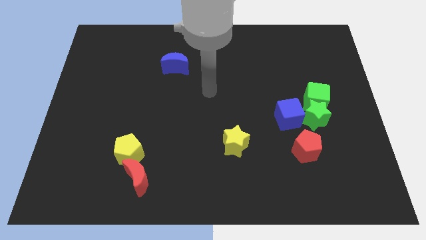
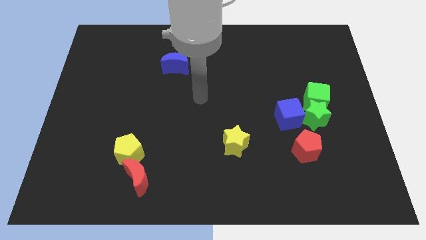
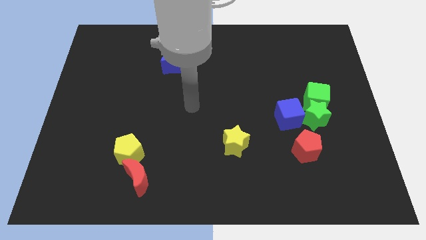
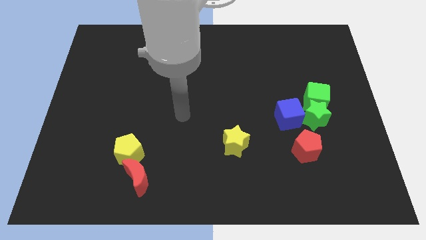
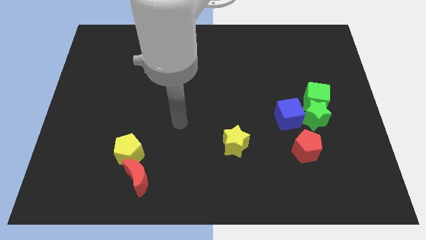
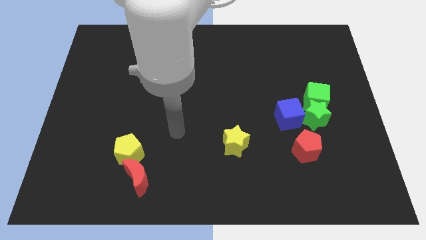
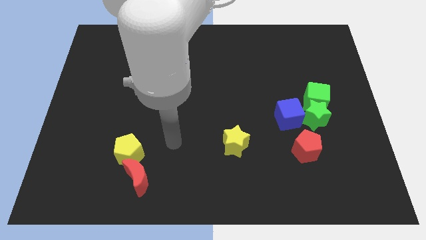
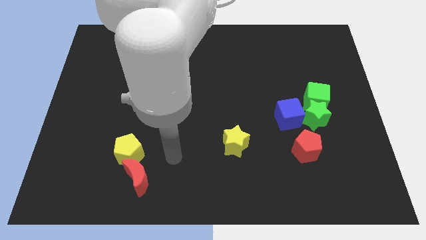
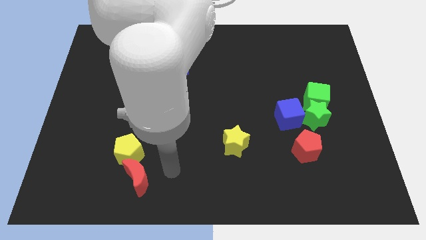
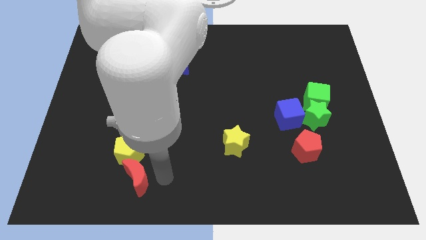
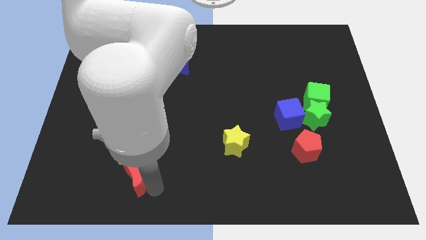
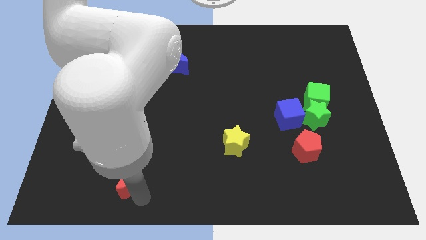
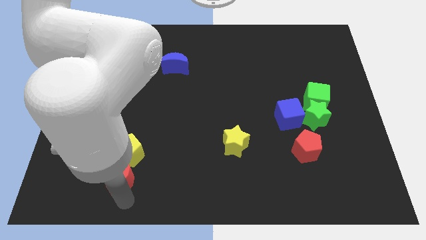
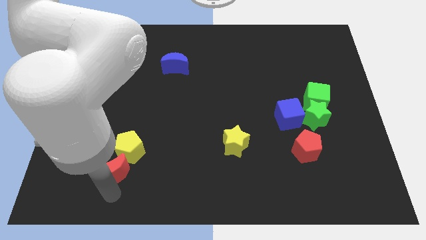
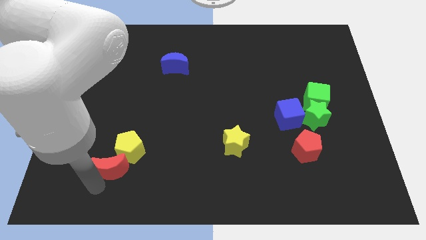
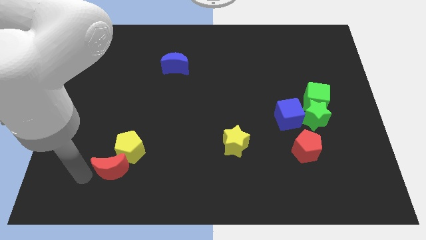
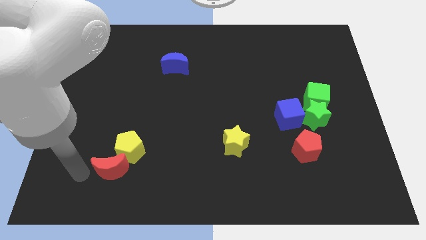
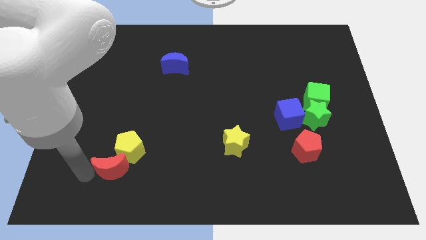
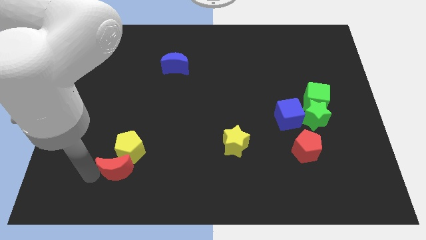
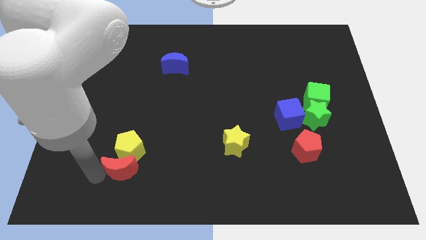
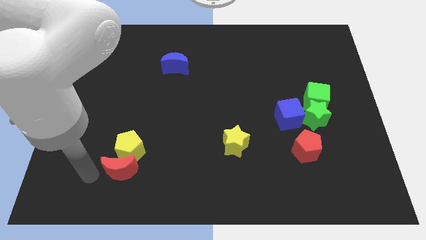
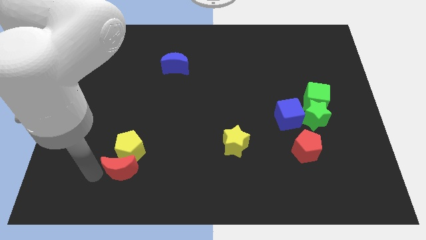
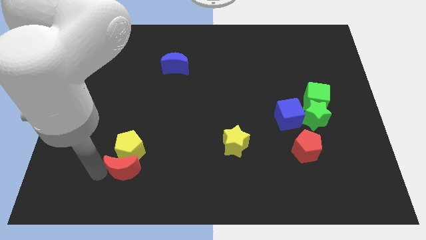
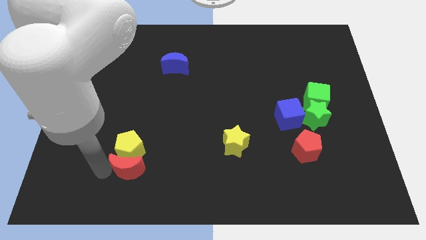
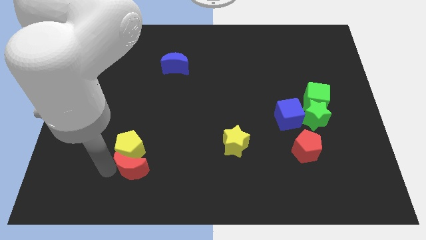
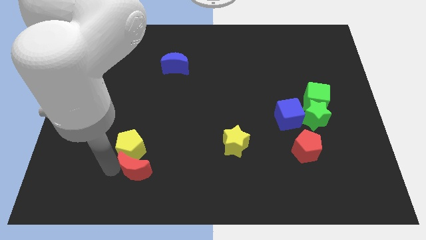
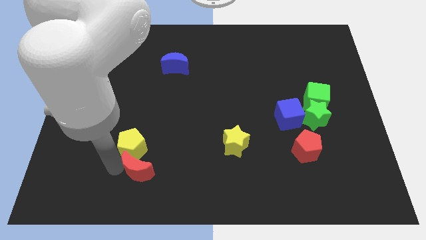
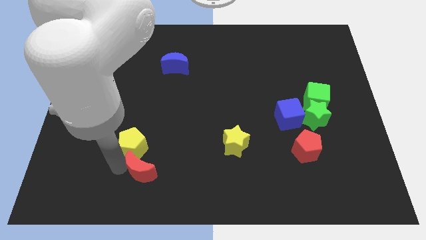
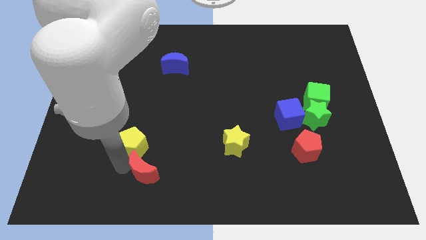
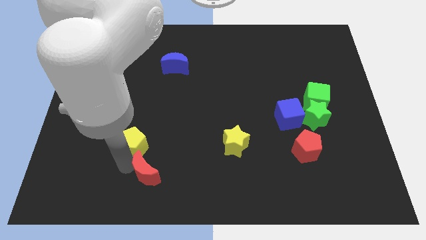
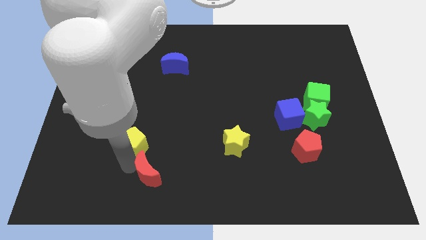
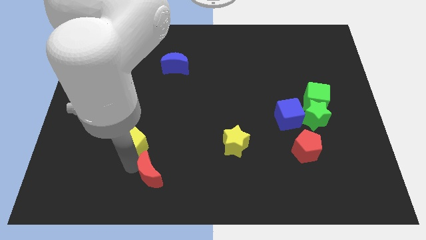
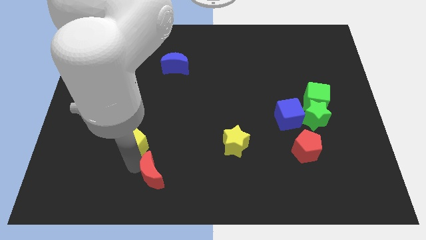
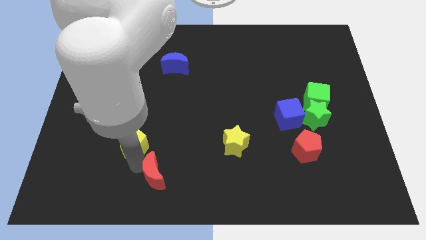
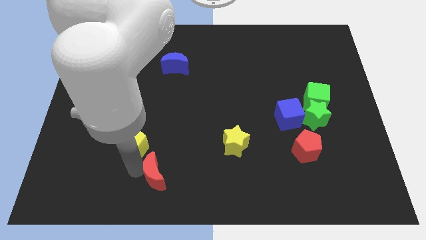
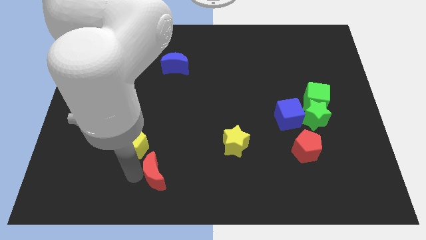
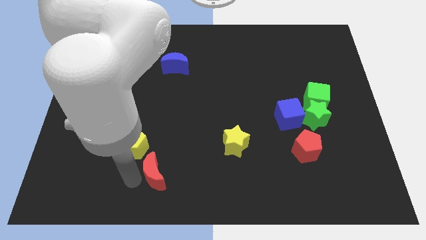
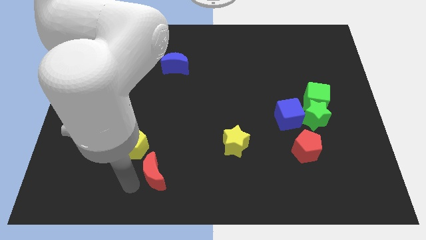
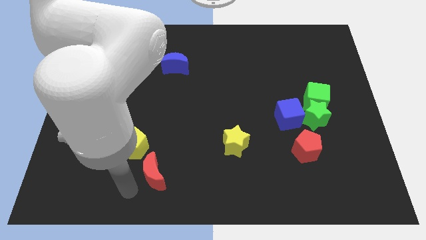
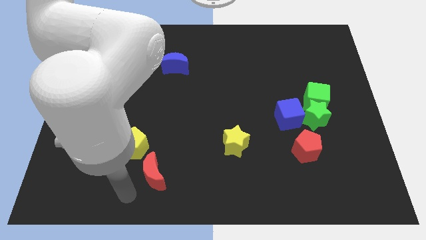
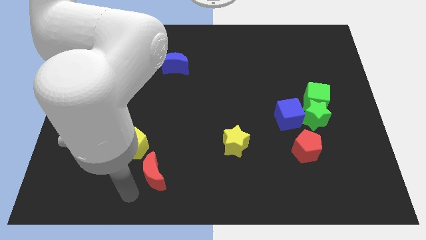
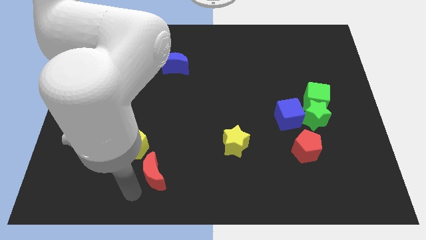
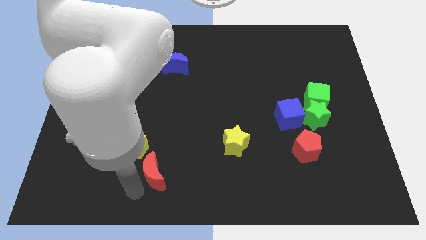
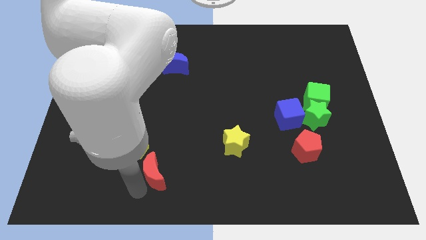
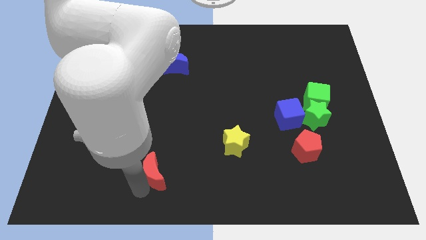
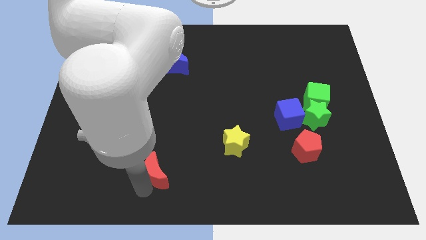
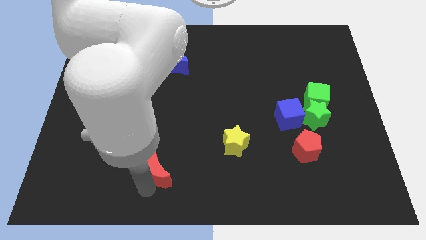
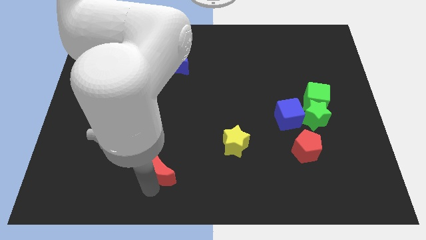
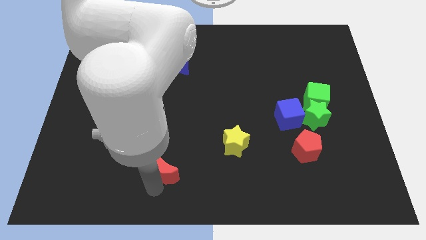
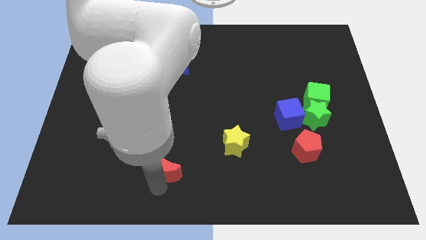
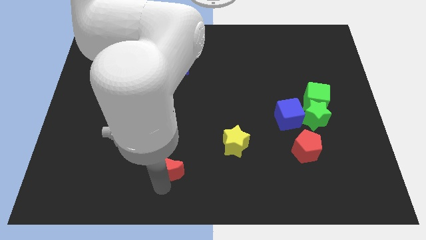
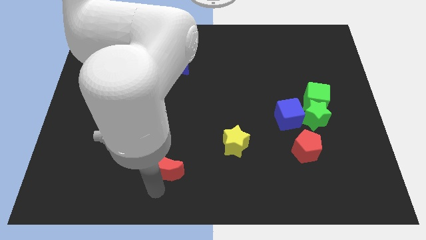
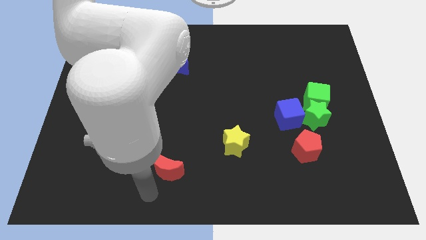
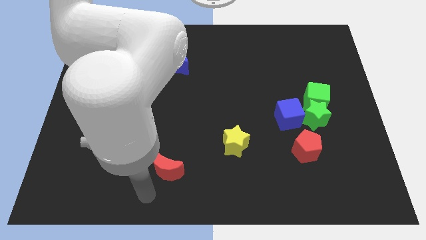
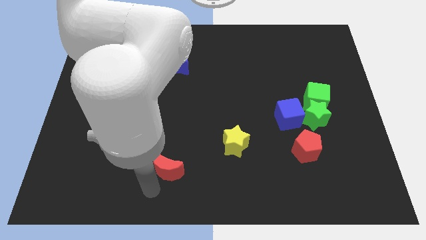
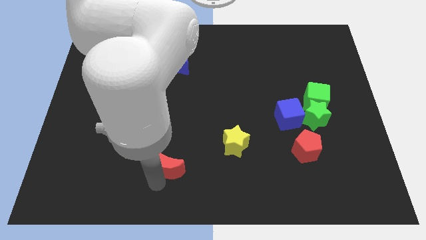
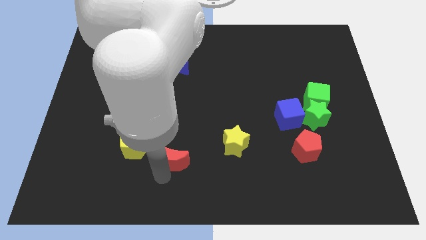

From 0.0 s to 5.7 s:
put the red moon left of the yellow star

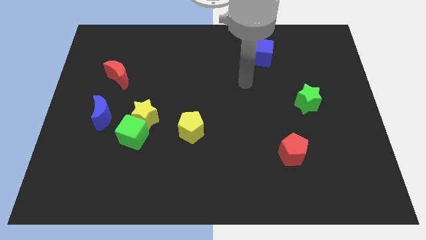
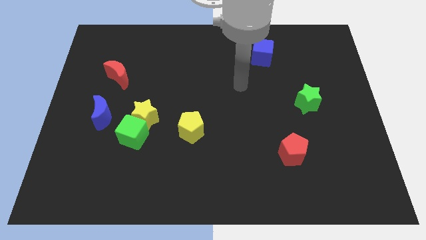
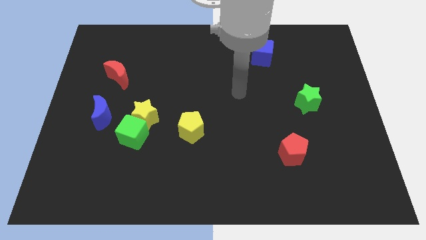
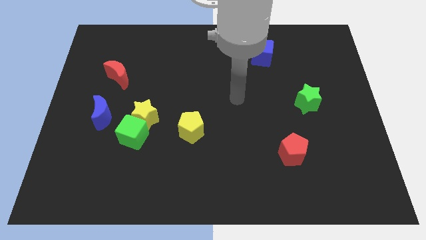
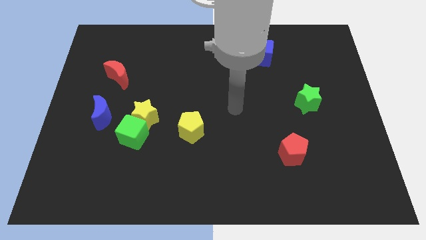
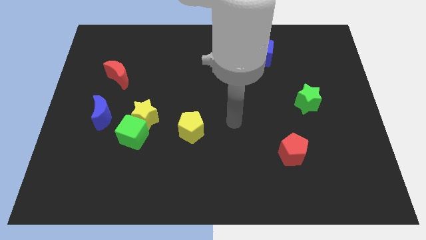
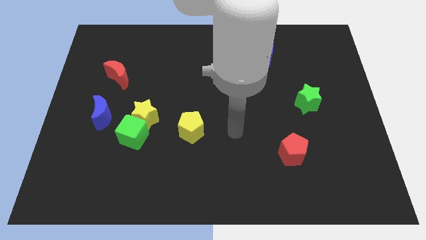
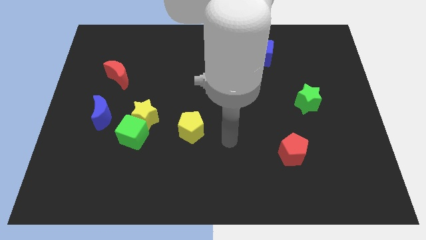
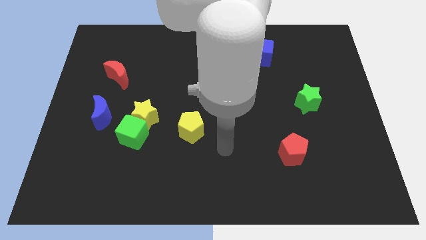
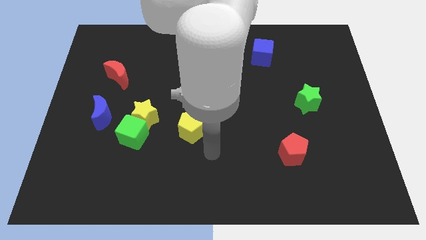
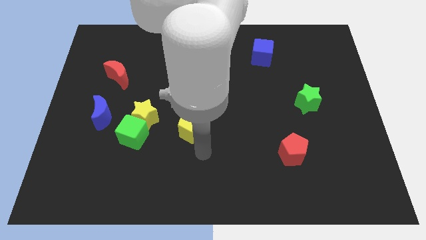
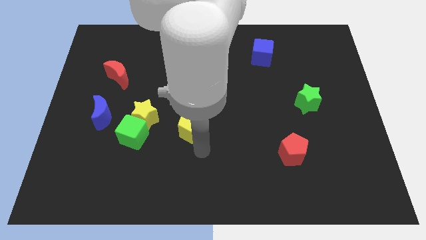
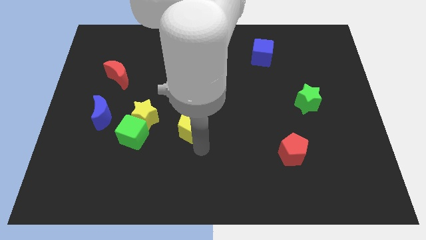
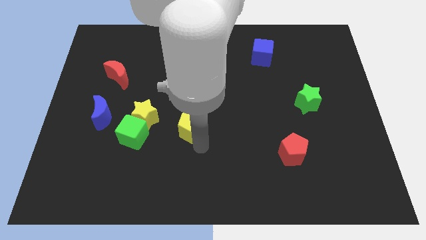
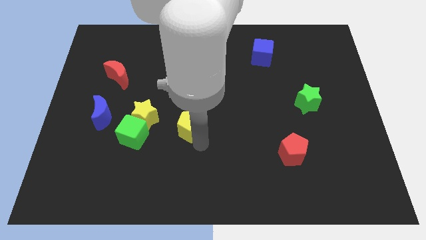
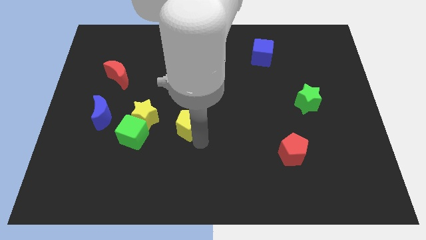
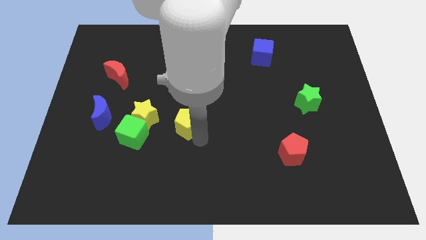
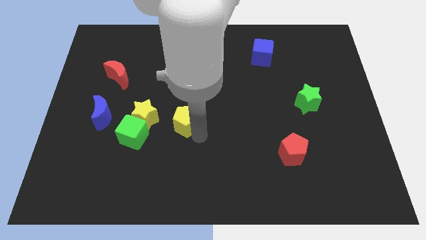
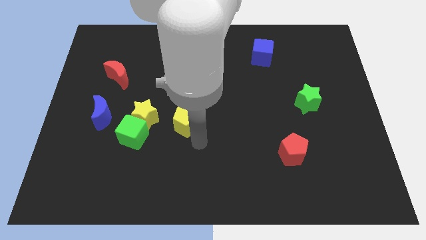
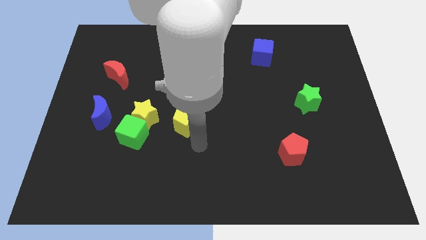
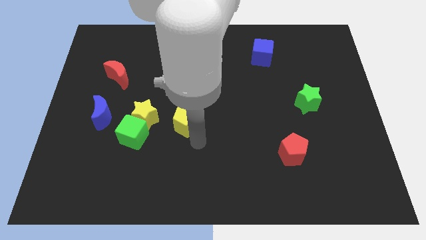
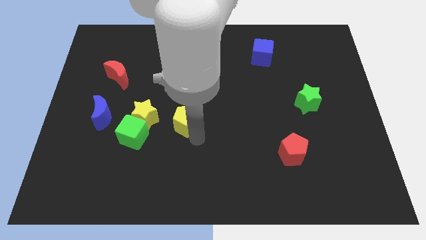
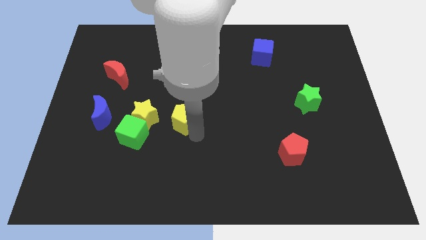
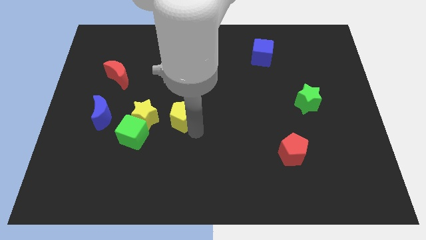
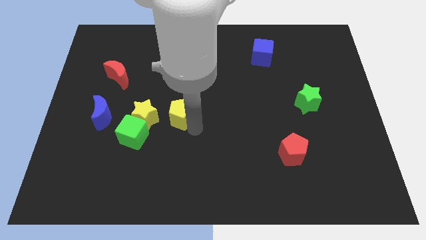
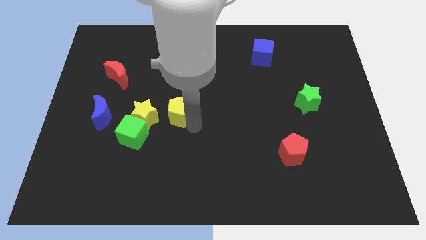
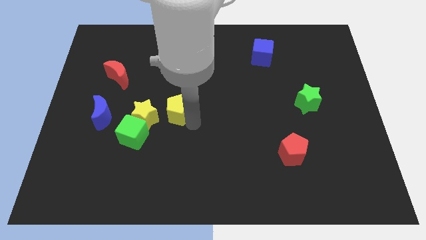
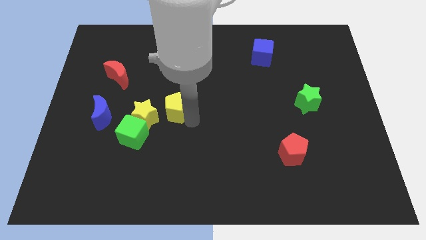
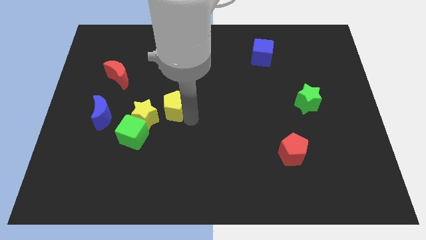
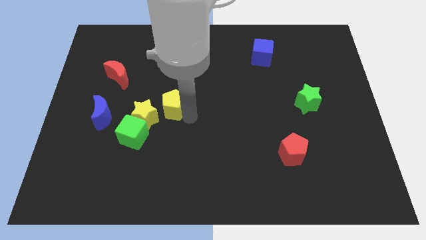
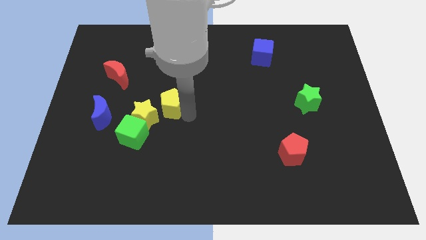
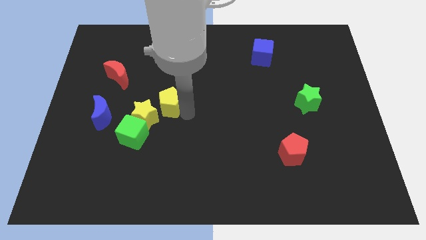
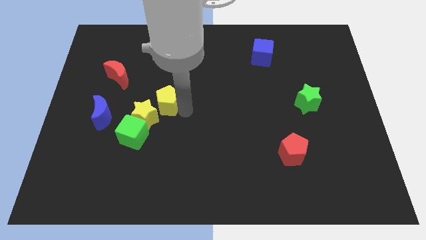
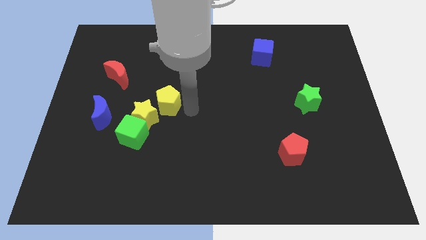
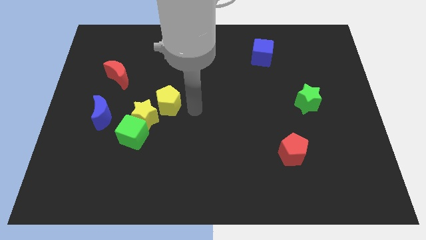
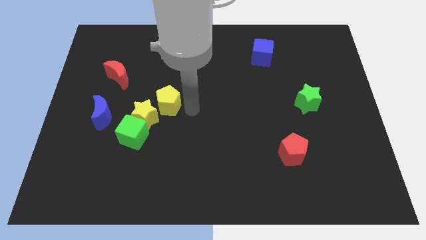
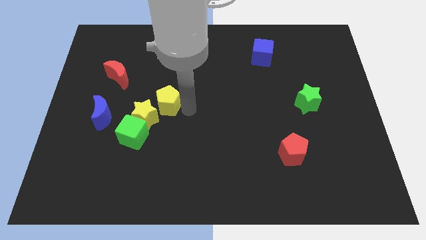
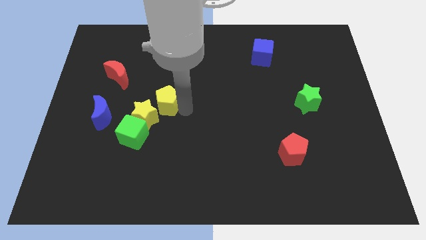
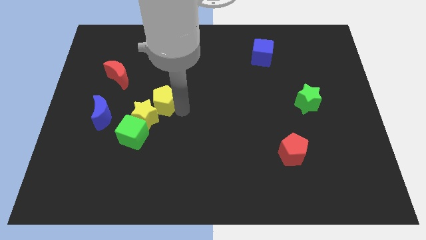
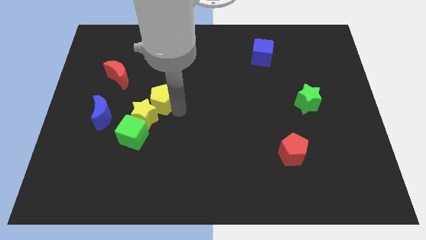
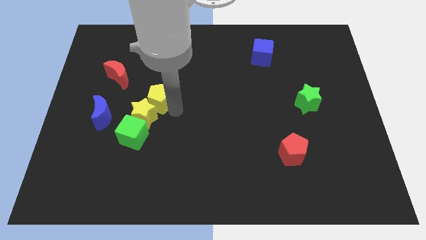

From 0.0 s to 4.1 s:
push the yellow pentagon to the top side of the green cube
